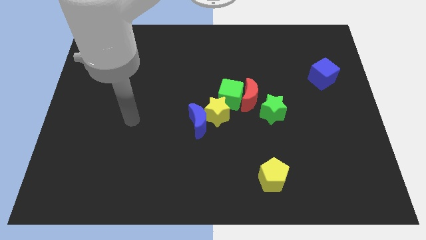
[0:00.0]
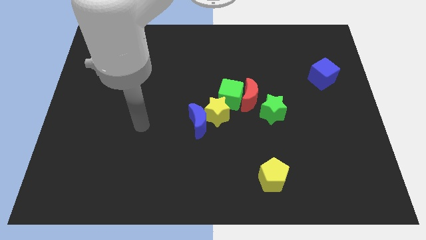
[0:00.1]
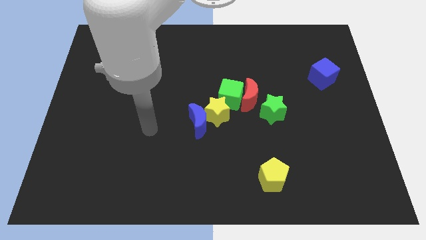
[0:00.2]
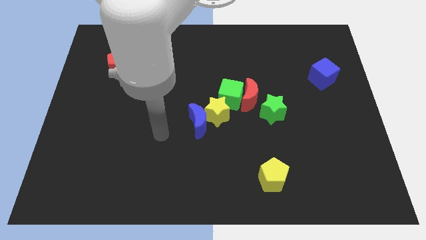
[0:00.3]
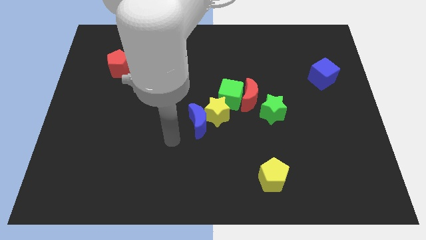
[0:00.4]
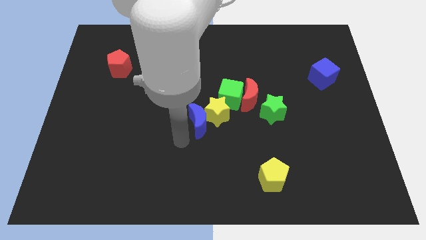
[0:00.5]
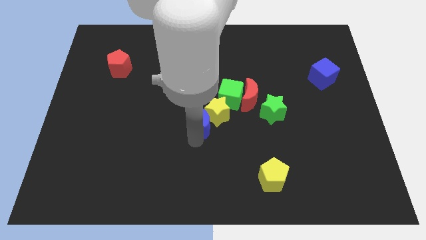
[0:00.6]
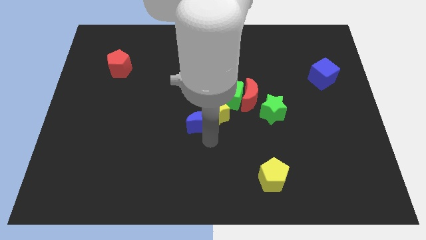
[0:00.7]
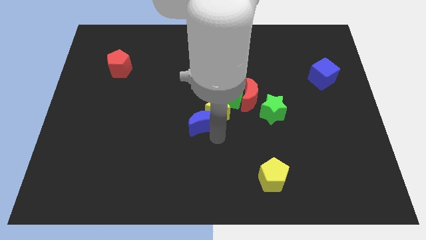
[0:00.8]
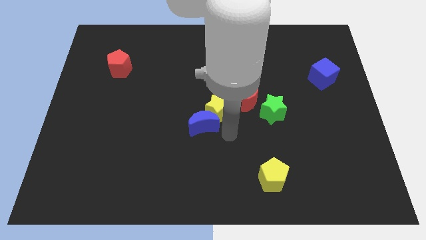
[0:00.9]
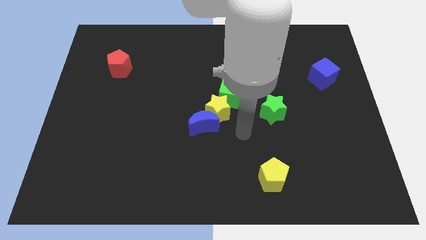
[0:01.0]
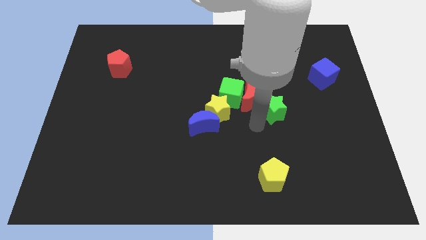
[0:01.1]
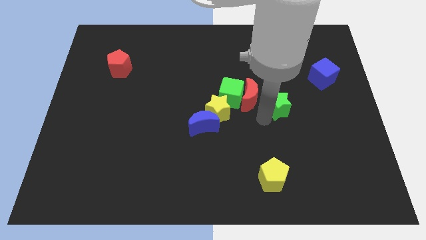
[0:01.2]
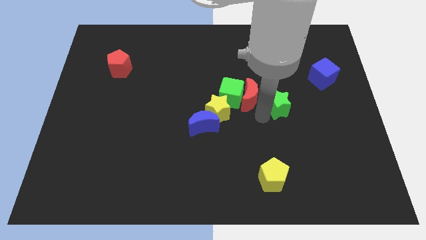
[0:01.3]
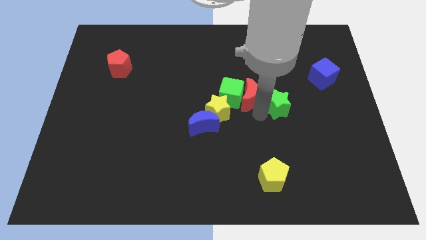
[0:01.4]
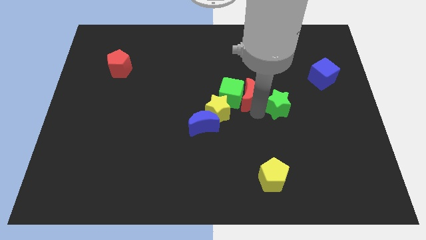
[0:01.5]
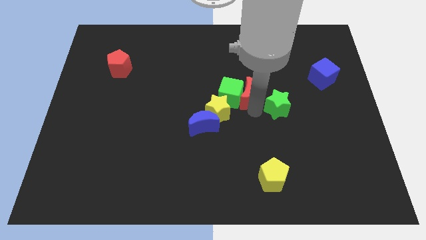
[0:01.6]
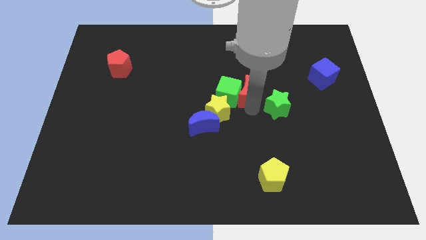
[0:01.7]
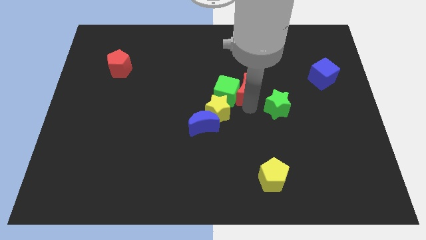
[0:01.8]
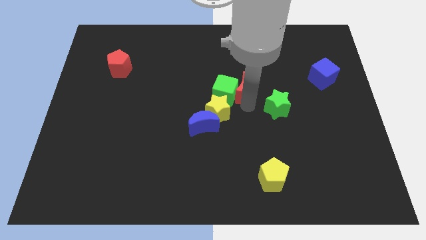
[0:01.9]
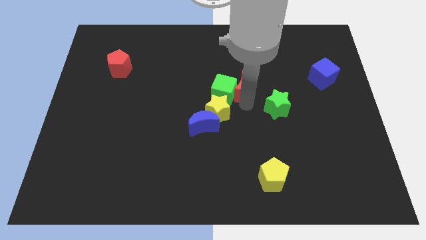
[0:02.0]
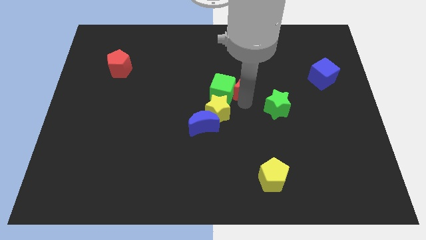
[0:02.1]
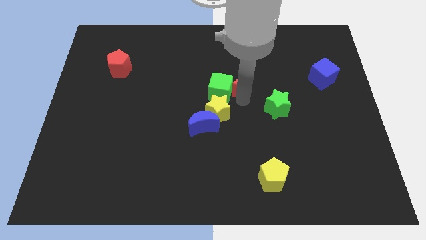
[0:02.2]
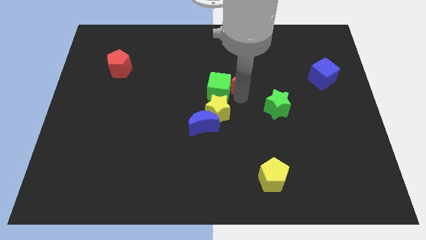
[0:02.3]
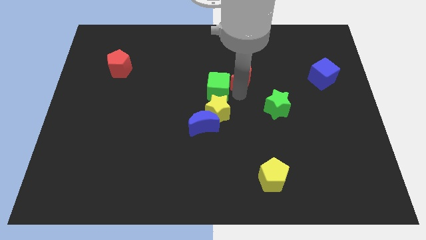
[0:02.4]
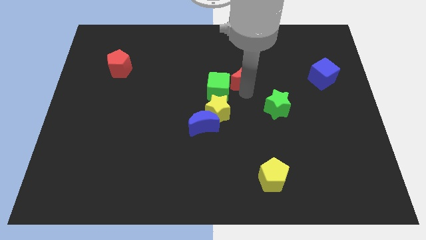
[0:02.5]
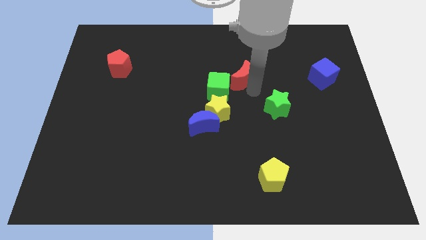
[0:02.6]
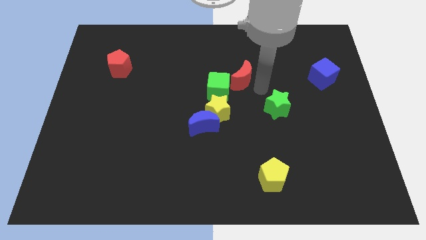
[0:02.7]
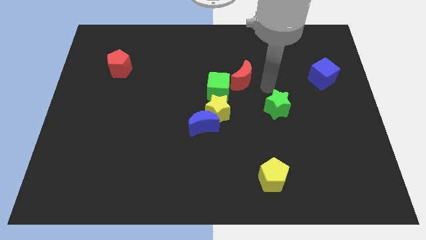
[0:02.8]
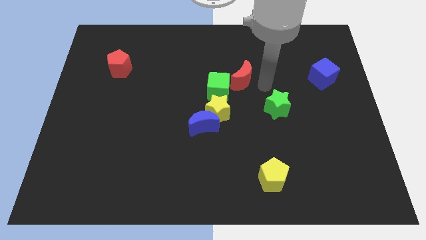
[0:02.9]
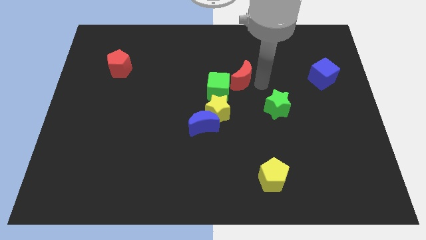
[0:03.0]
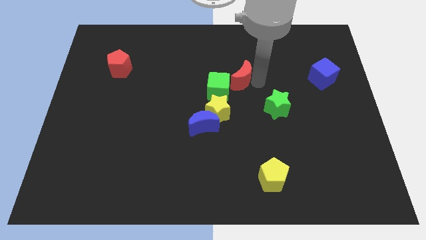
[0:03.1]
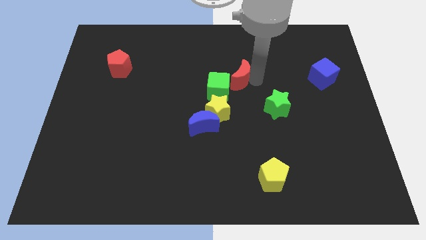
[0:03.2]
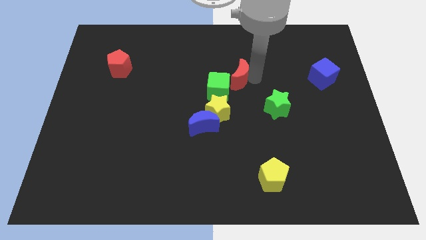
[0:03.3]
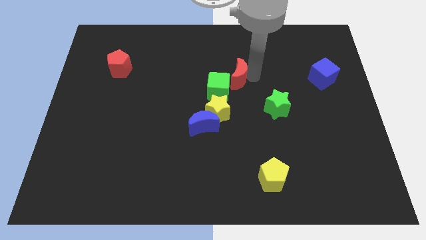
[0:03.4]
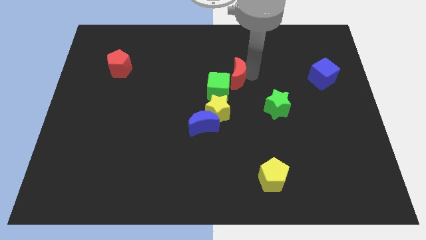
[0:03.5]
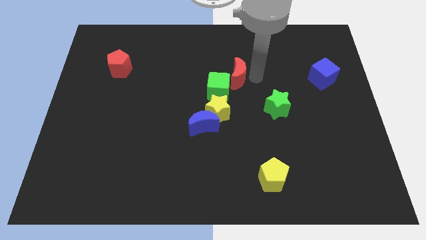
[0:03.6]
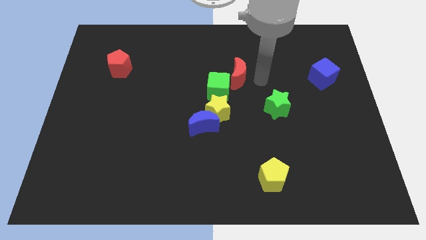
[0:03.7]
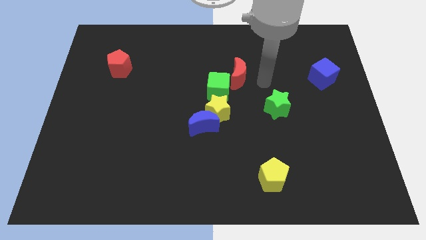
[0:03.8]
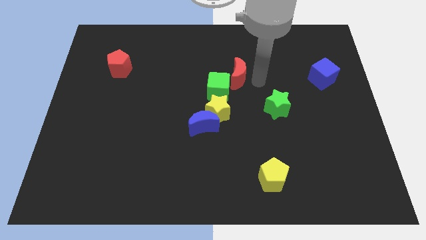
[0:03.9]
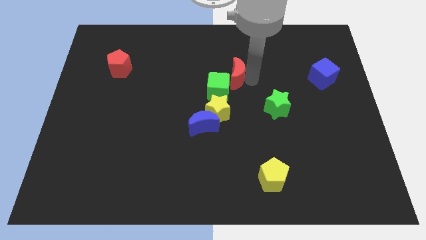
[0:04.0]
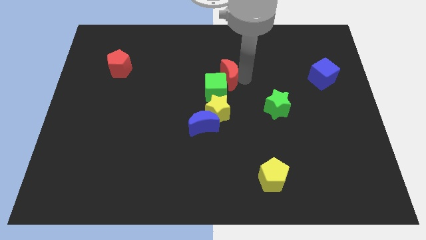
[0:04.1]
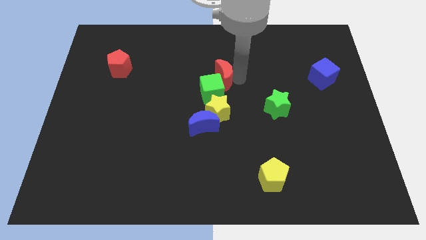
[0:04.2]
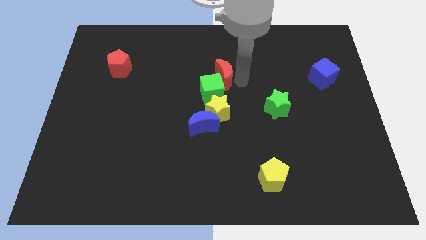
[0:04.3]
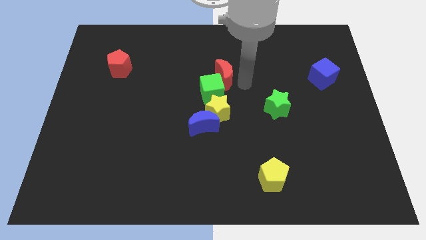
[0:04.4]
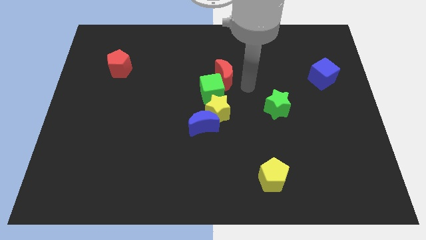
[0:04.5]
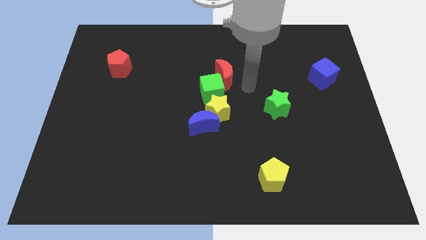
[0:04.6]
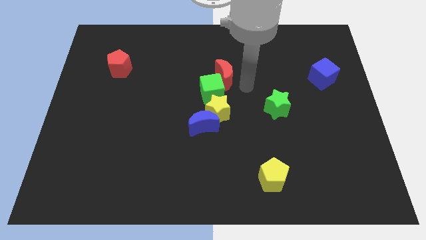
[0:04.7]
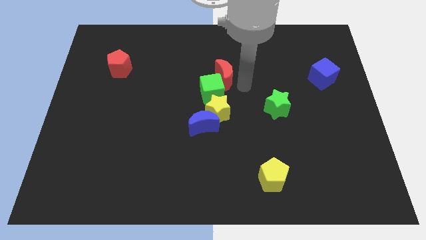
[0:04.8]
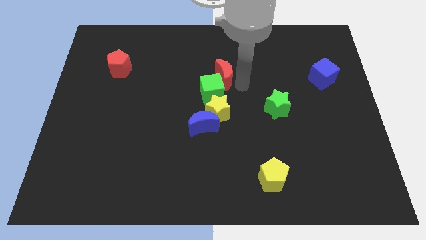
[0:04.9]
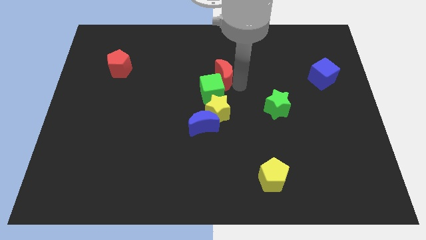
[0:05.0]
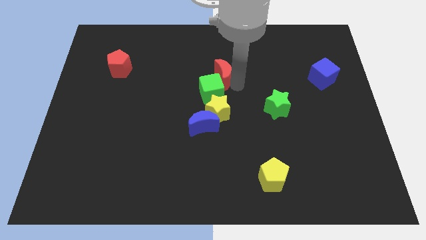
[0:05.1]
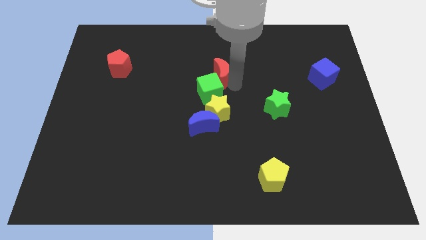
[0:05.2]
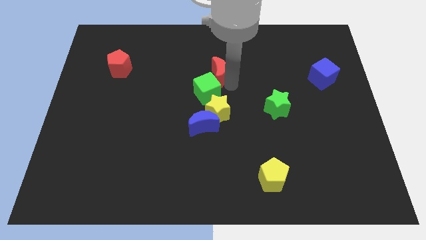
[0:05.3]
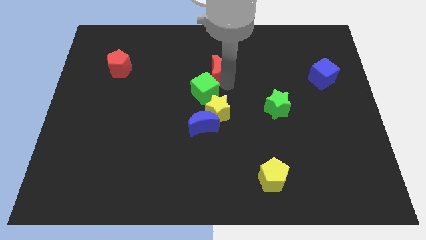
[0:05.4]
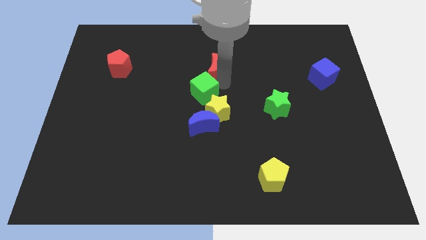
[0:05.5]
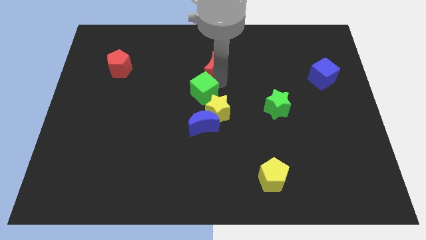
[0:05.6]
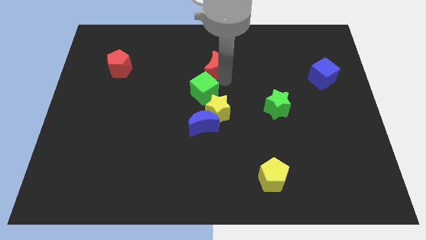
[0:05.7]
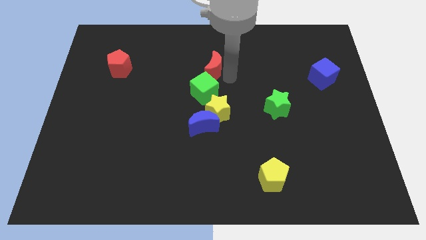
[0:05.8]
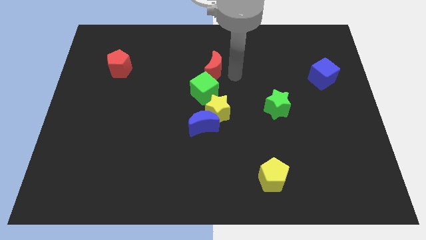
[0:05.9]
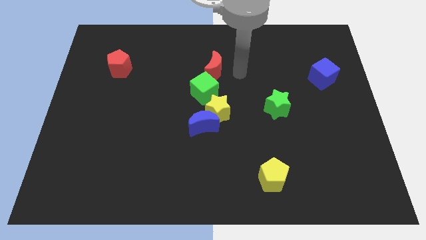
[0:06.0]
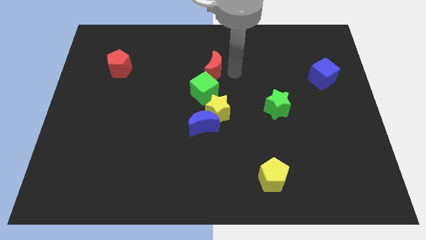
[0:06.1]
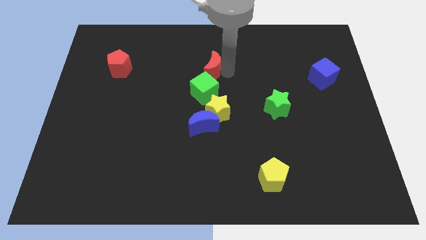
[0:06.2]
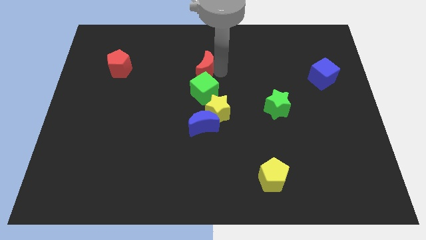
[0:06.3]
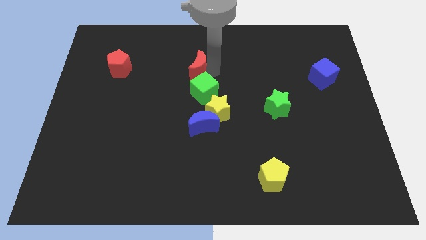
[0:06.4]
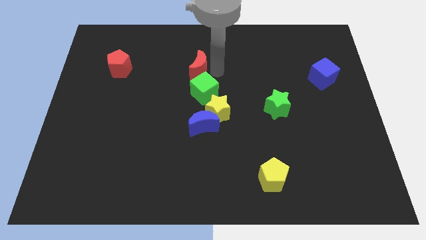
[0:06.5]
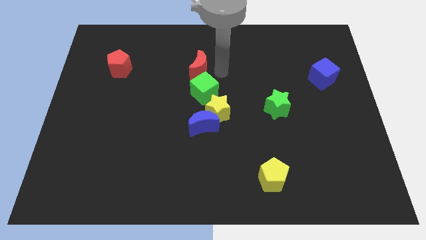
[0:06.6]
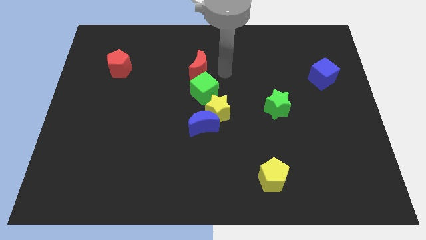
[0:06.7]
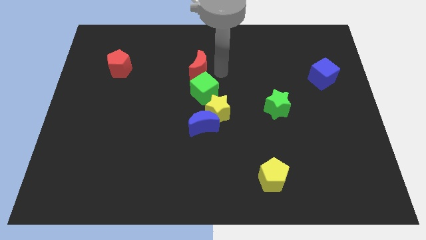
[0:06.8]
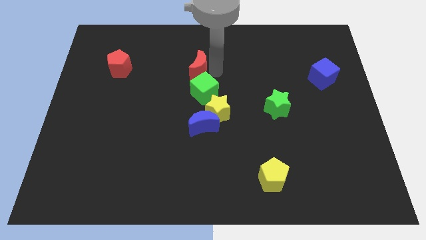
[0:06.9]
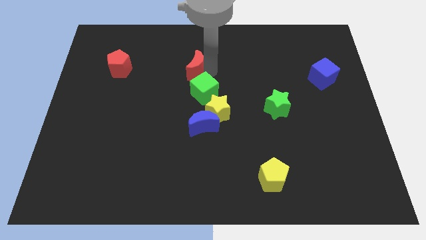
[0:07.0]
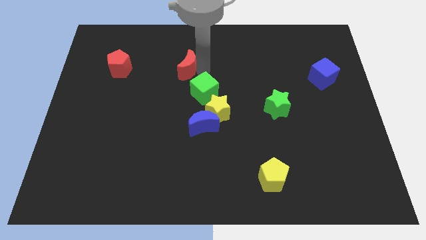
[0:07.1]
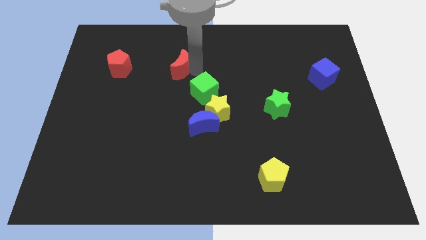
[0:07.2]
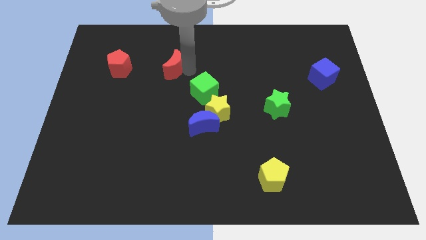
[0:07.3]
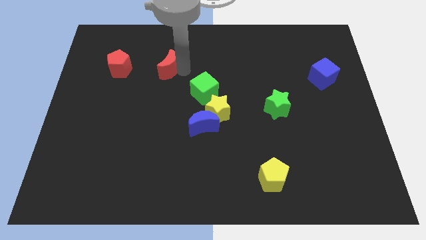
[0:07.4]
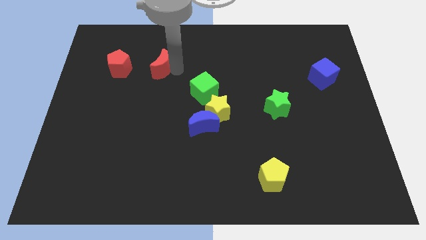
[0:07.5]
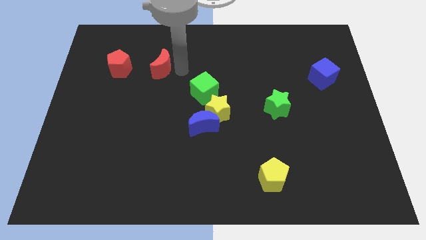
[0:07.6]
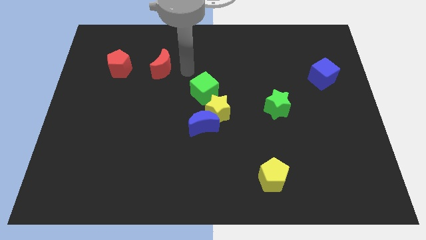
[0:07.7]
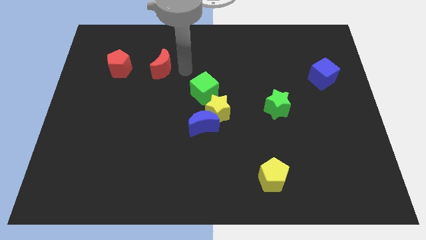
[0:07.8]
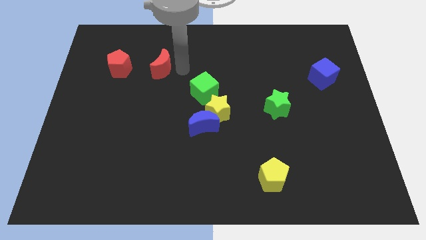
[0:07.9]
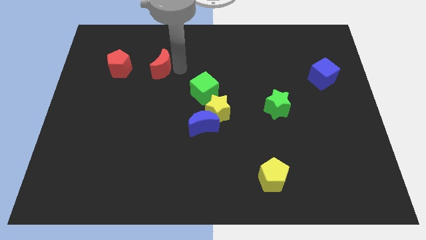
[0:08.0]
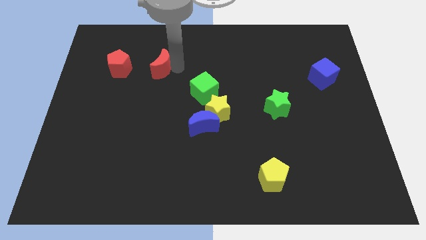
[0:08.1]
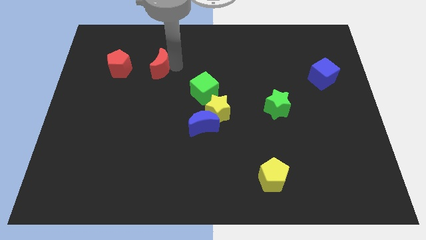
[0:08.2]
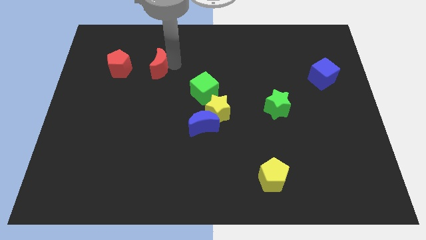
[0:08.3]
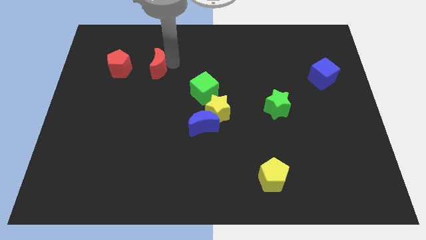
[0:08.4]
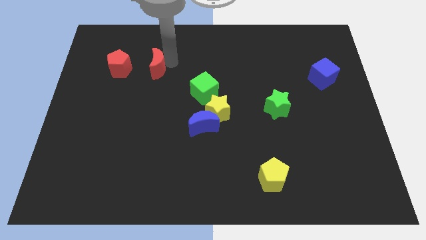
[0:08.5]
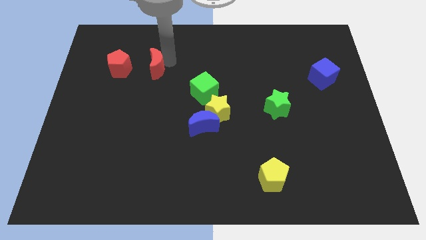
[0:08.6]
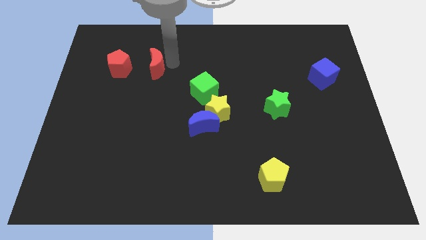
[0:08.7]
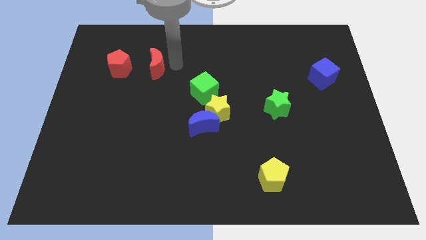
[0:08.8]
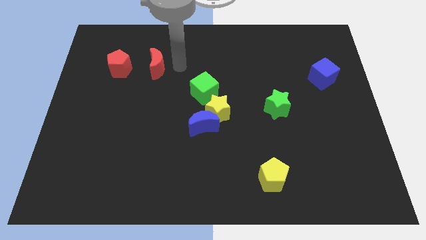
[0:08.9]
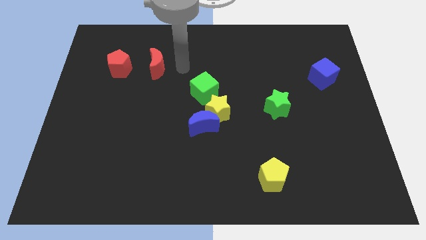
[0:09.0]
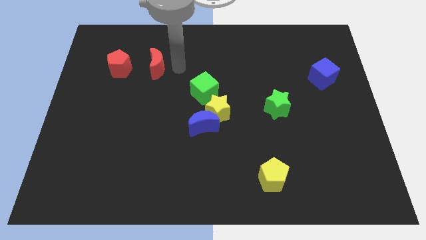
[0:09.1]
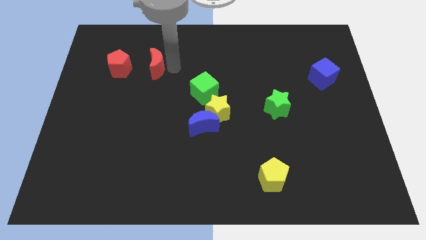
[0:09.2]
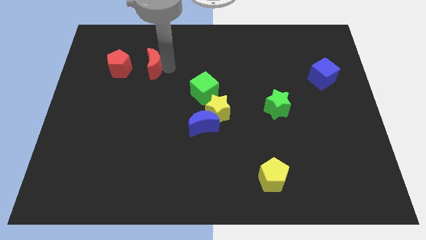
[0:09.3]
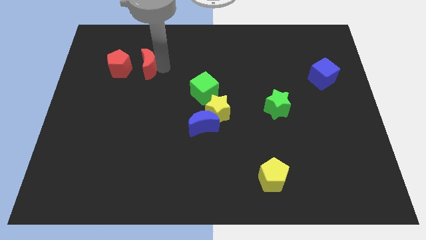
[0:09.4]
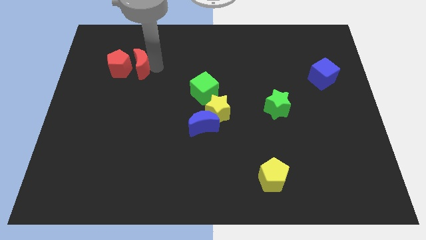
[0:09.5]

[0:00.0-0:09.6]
slide the red moon to the red pentagon
